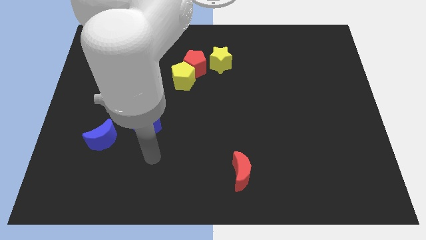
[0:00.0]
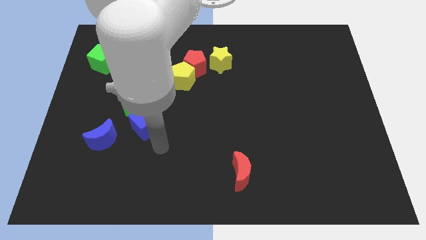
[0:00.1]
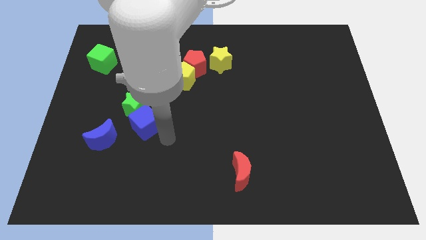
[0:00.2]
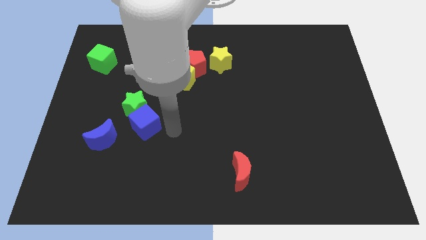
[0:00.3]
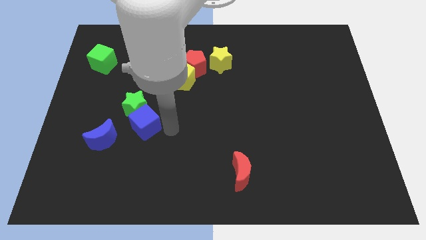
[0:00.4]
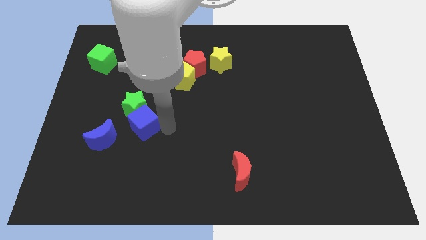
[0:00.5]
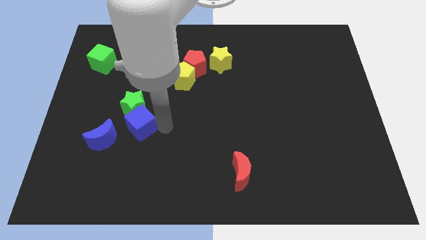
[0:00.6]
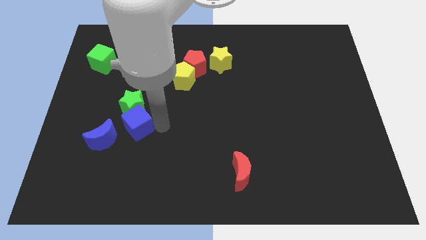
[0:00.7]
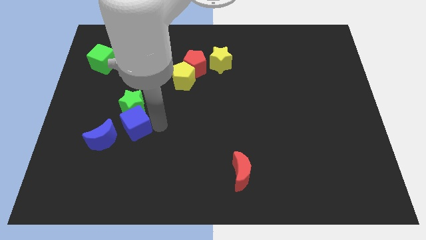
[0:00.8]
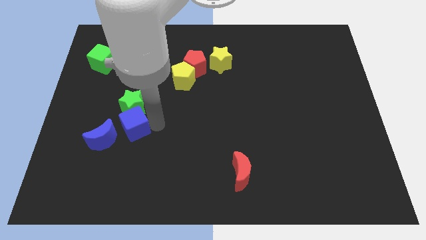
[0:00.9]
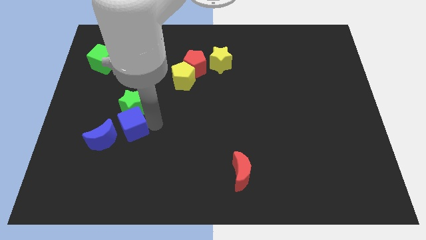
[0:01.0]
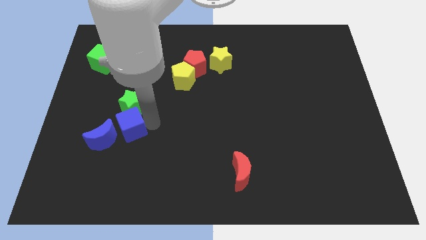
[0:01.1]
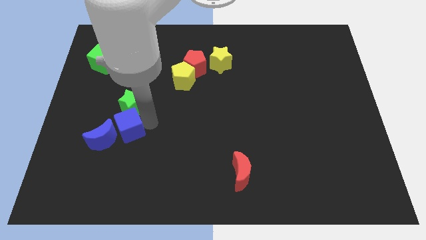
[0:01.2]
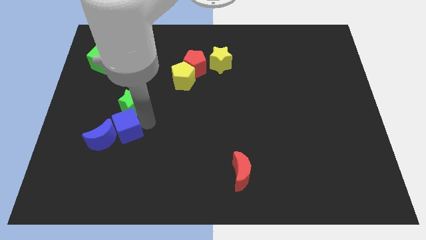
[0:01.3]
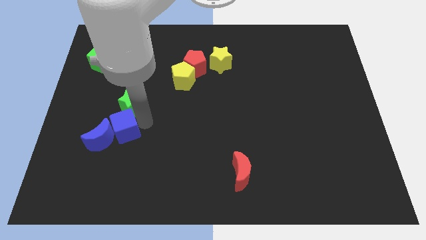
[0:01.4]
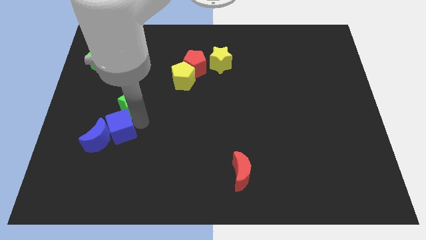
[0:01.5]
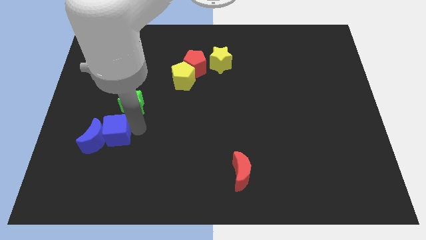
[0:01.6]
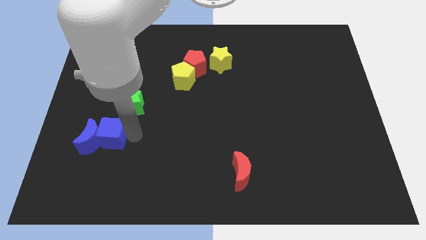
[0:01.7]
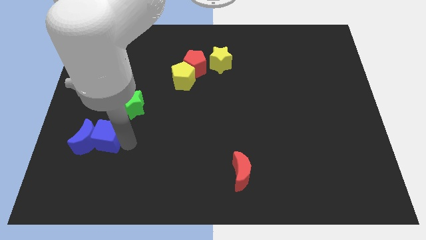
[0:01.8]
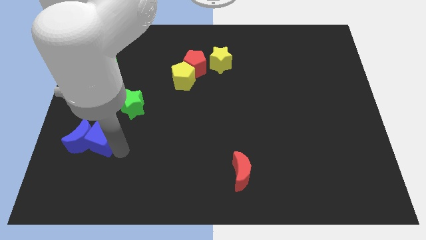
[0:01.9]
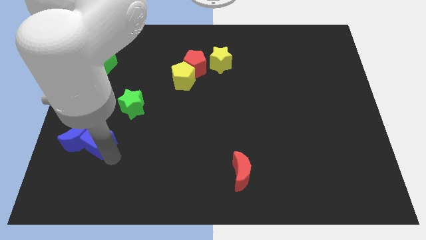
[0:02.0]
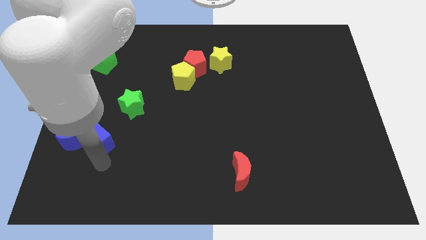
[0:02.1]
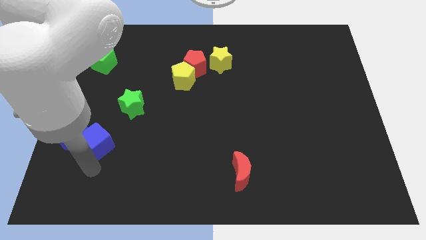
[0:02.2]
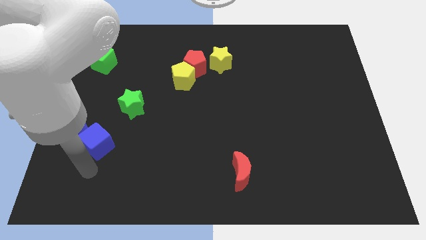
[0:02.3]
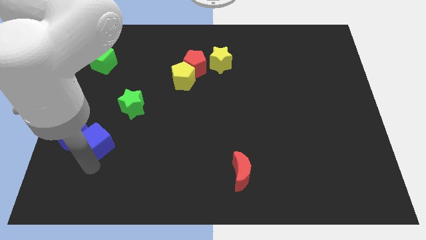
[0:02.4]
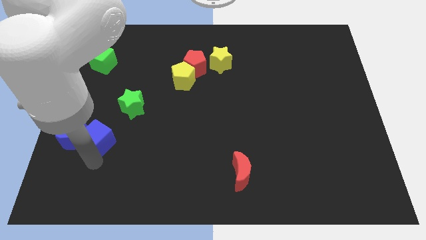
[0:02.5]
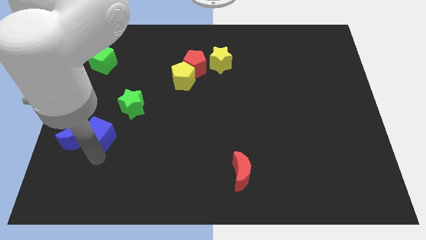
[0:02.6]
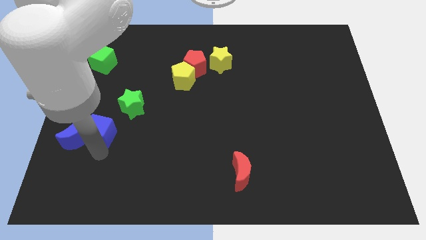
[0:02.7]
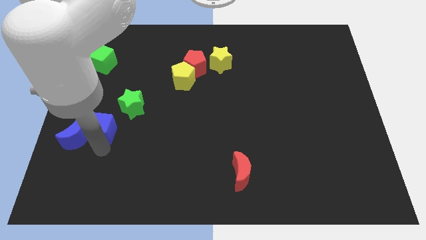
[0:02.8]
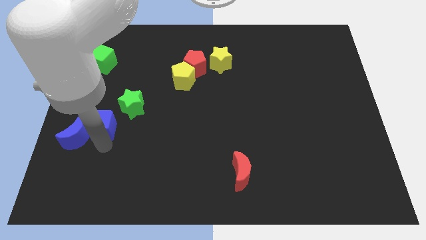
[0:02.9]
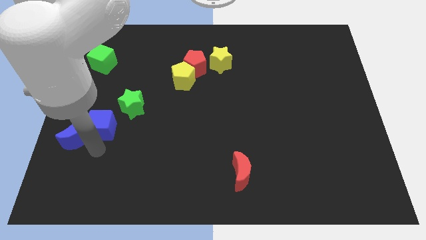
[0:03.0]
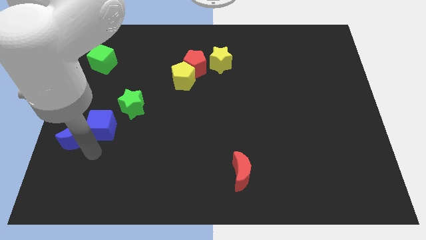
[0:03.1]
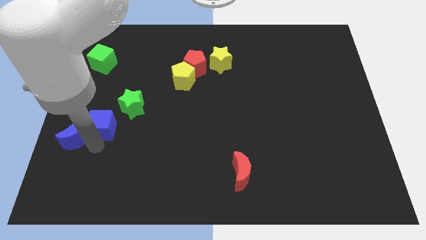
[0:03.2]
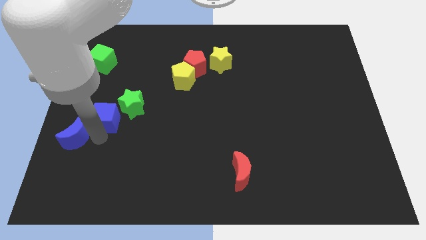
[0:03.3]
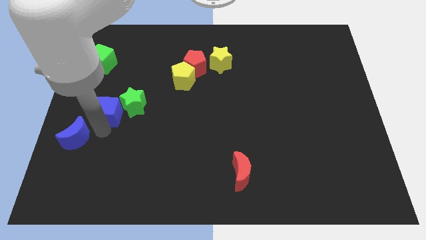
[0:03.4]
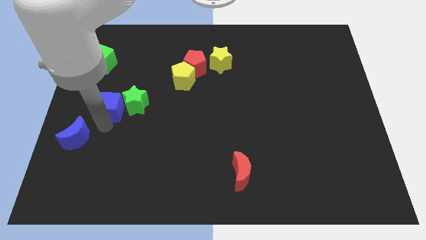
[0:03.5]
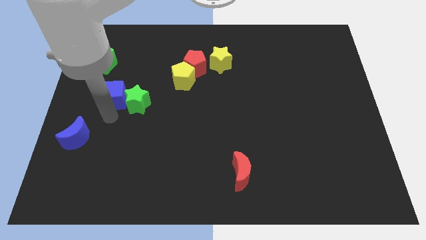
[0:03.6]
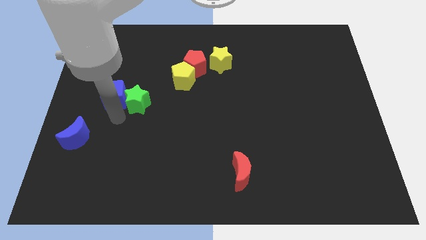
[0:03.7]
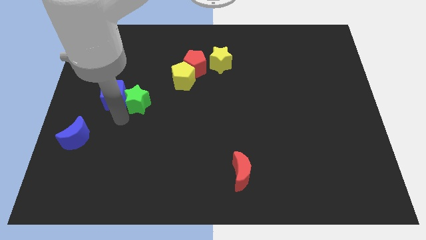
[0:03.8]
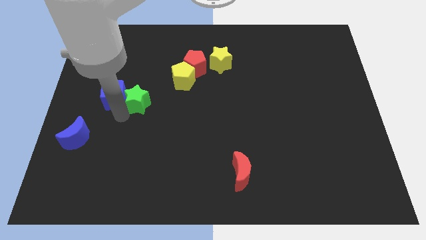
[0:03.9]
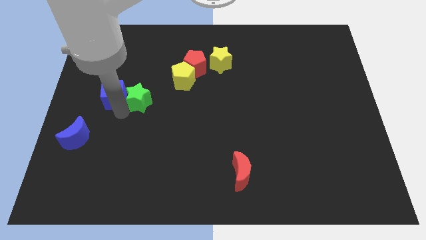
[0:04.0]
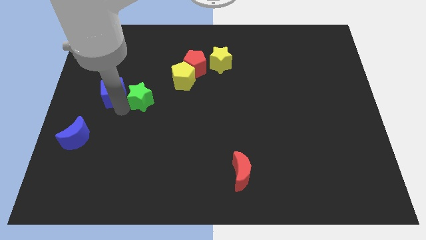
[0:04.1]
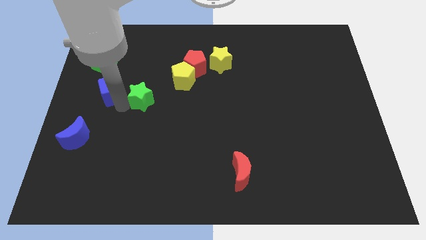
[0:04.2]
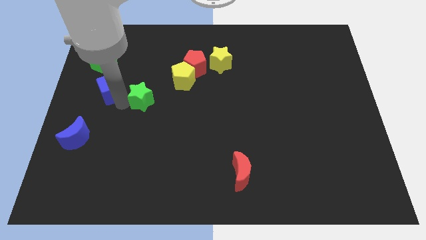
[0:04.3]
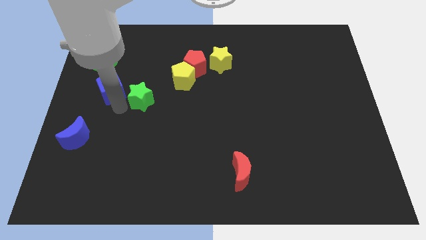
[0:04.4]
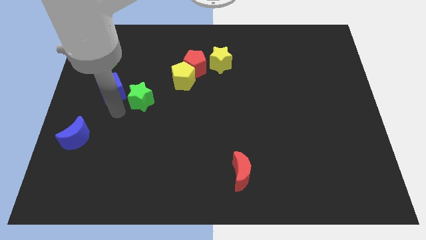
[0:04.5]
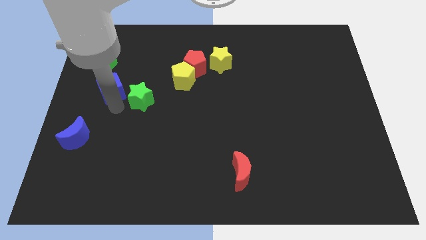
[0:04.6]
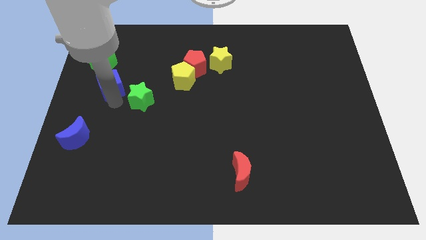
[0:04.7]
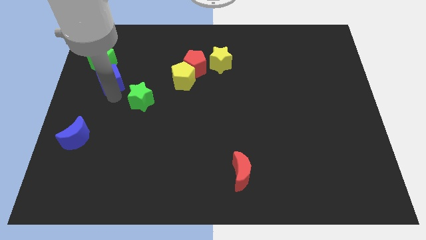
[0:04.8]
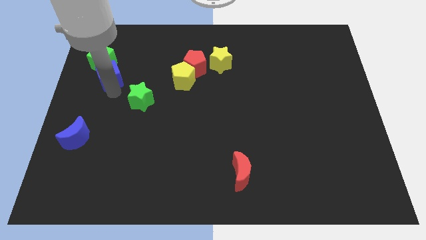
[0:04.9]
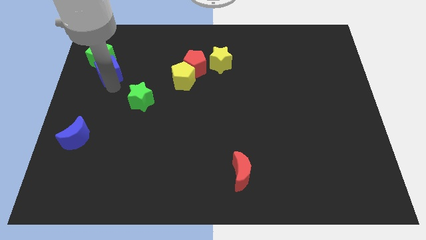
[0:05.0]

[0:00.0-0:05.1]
slide the blue cube towards the green cube

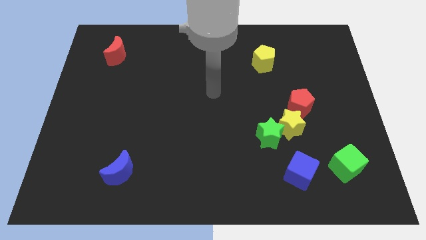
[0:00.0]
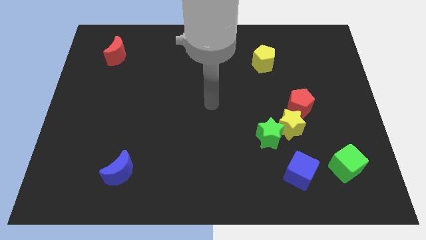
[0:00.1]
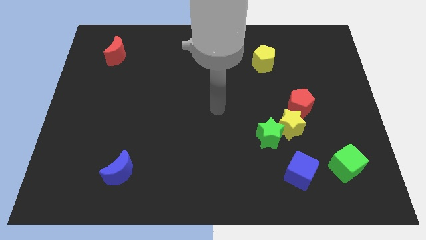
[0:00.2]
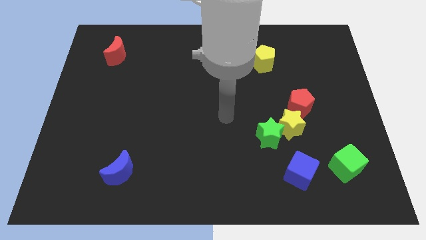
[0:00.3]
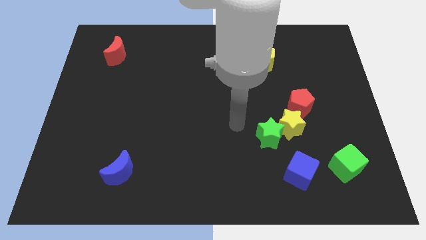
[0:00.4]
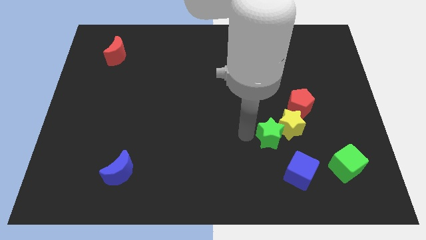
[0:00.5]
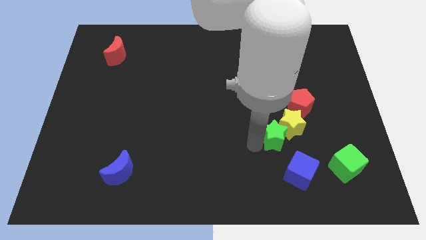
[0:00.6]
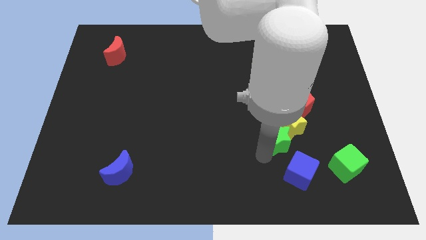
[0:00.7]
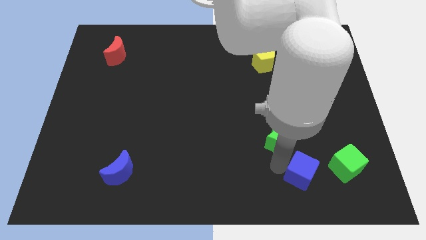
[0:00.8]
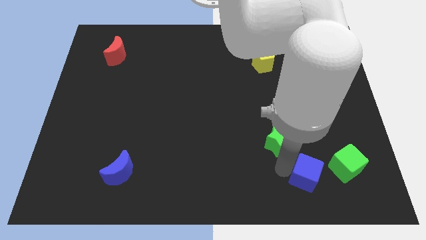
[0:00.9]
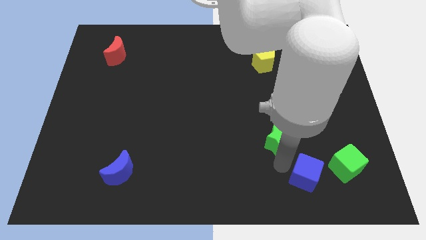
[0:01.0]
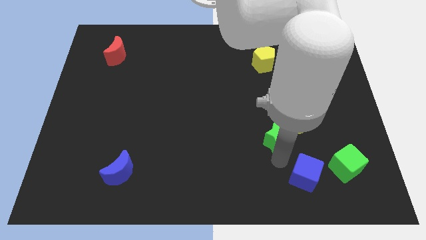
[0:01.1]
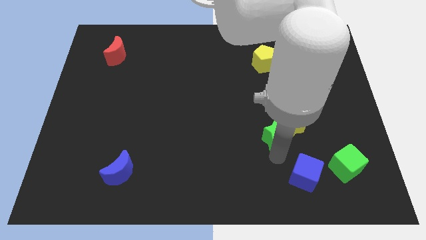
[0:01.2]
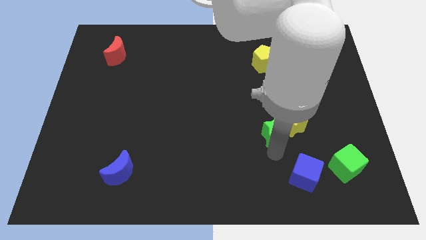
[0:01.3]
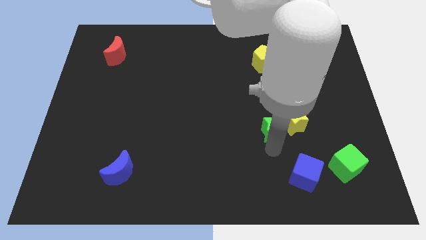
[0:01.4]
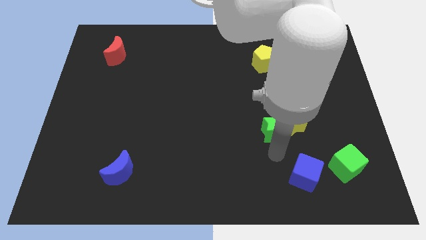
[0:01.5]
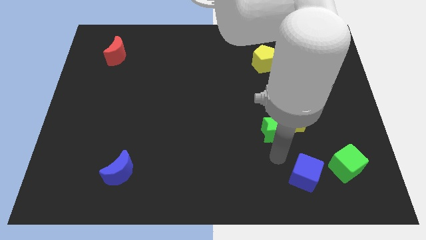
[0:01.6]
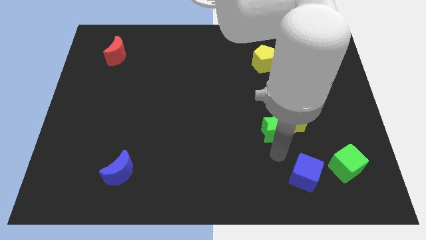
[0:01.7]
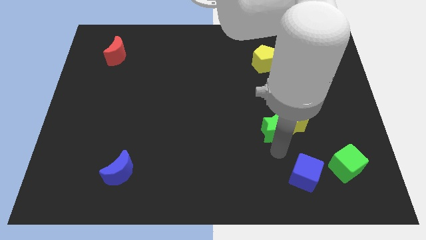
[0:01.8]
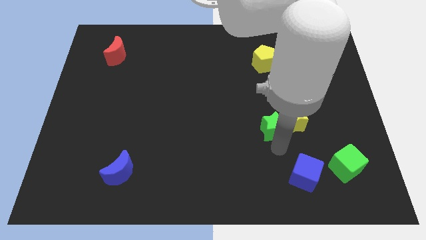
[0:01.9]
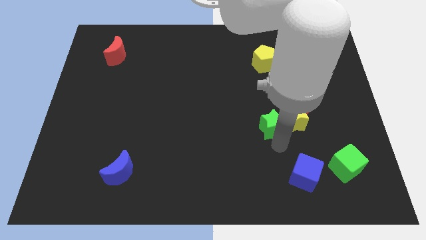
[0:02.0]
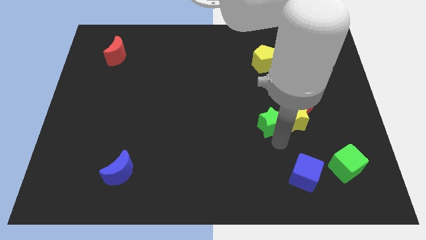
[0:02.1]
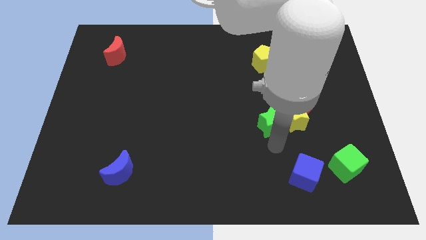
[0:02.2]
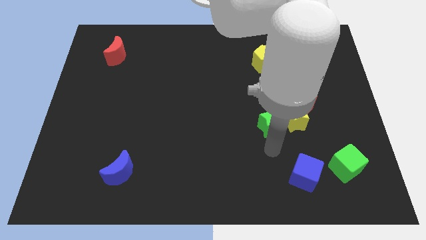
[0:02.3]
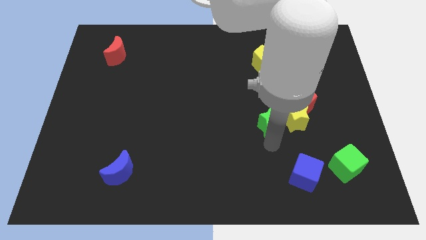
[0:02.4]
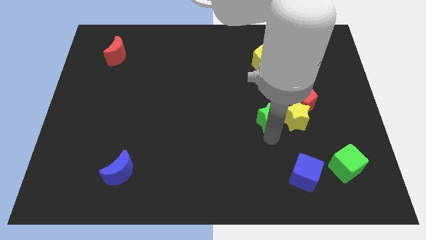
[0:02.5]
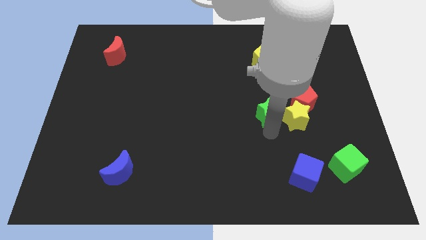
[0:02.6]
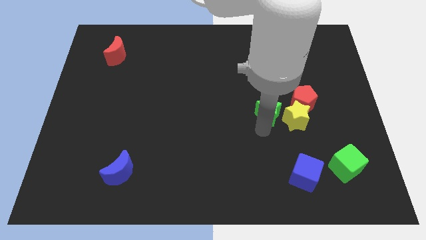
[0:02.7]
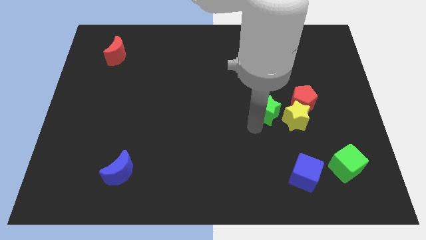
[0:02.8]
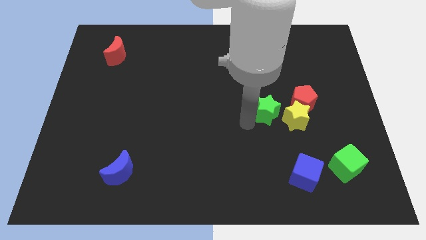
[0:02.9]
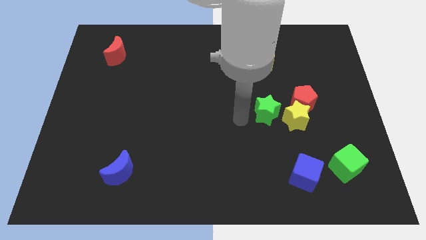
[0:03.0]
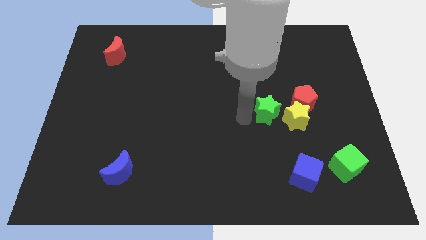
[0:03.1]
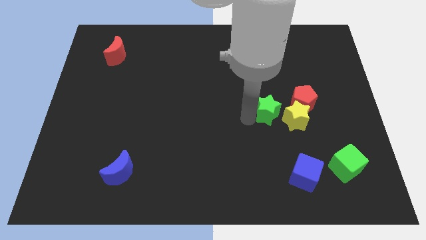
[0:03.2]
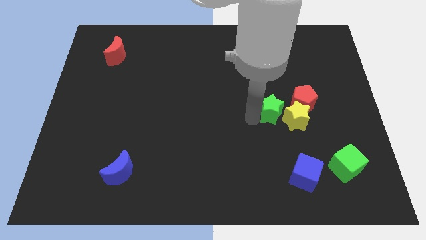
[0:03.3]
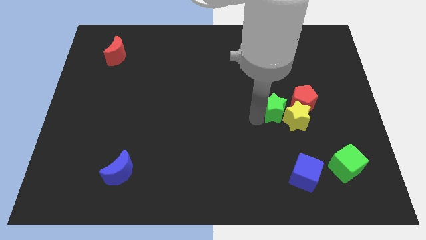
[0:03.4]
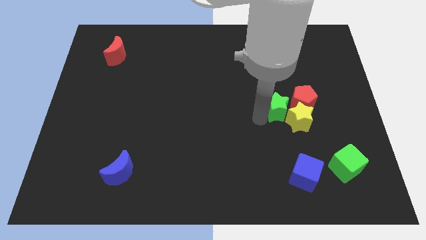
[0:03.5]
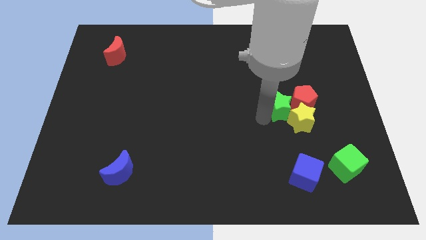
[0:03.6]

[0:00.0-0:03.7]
move the green star to the red pentagon
